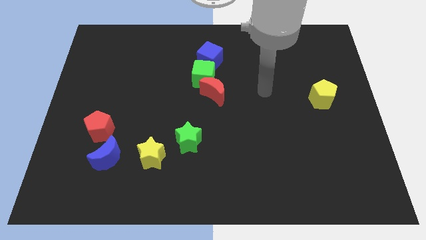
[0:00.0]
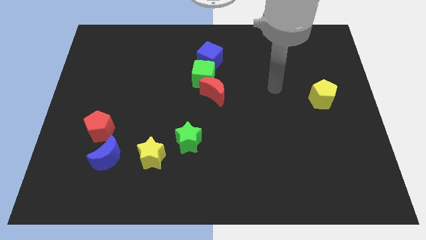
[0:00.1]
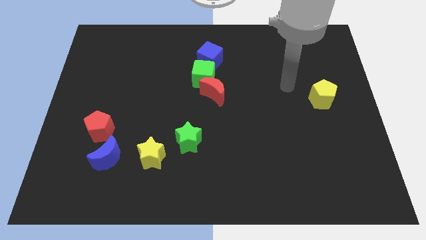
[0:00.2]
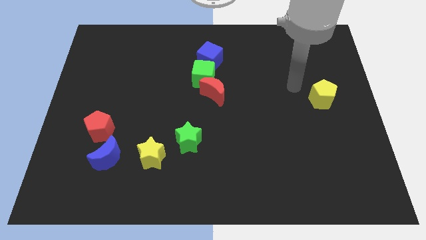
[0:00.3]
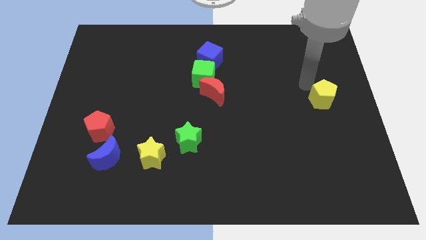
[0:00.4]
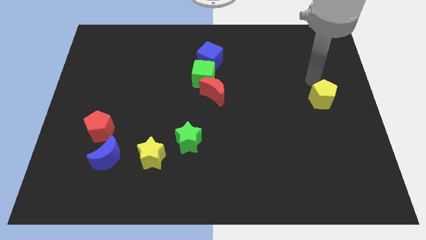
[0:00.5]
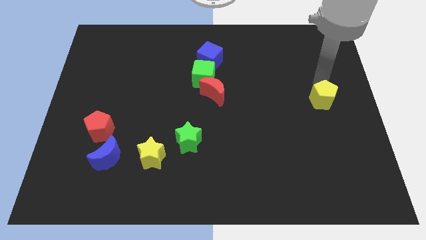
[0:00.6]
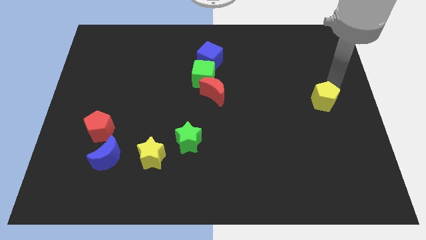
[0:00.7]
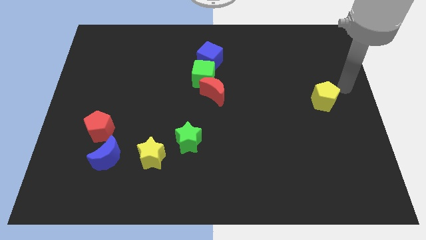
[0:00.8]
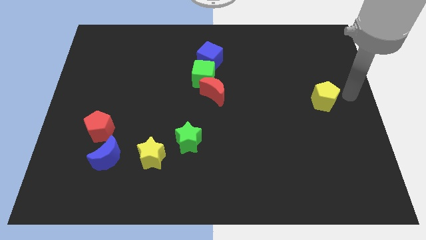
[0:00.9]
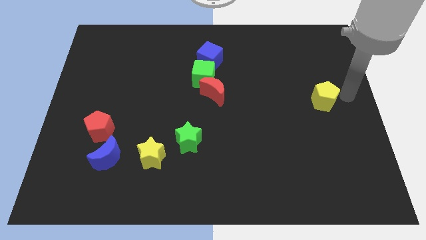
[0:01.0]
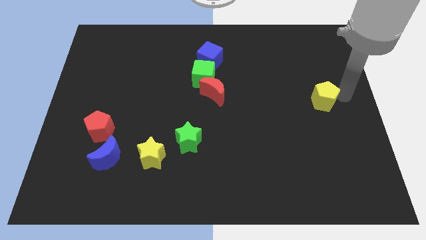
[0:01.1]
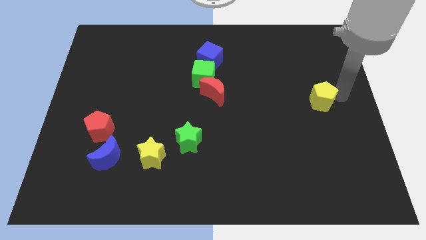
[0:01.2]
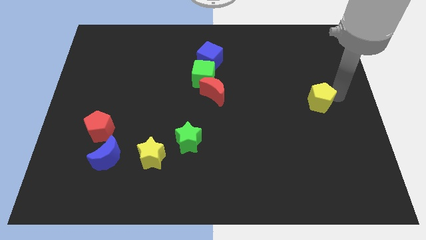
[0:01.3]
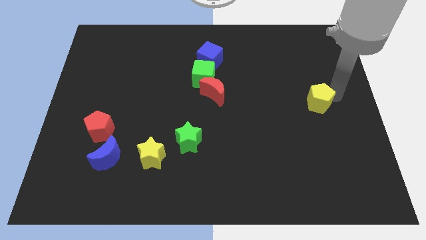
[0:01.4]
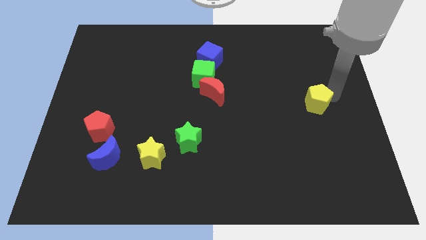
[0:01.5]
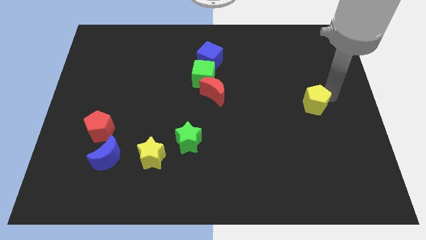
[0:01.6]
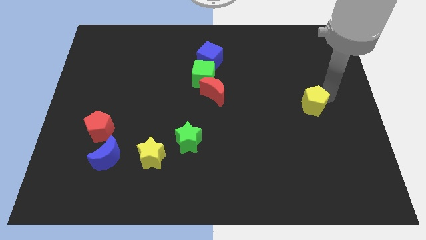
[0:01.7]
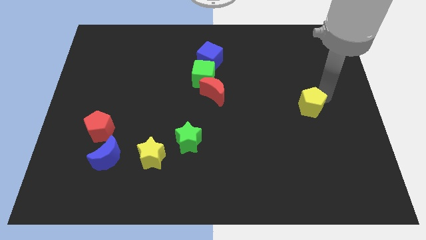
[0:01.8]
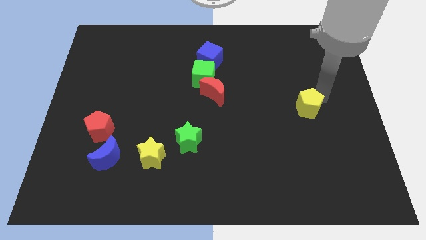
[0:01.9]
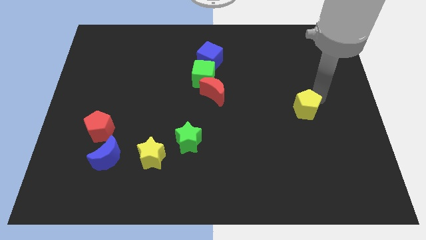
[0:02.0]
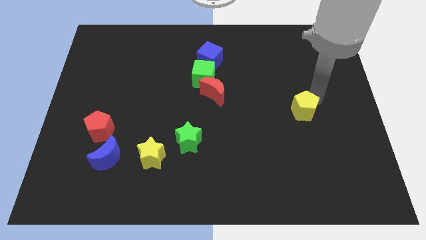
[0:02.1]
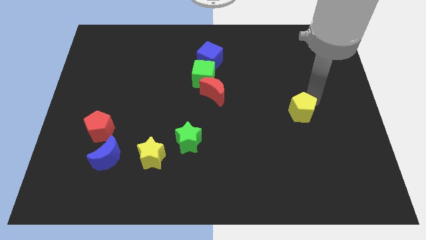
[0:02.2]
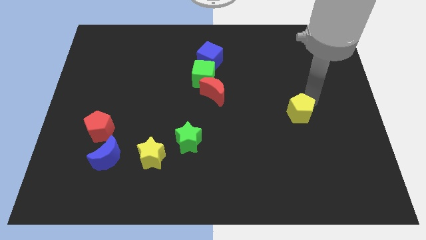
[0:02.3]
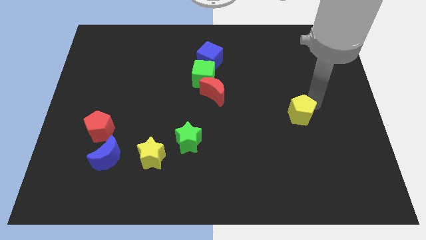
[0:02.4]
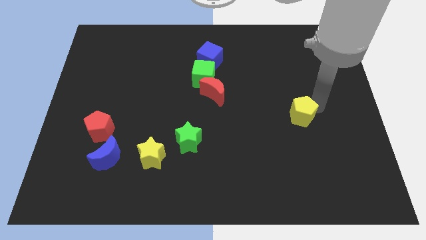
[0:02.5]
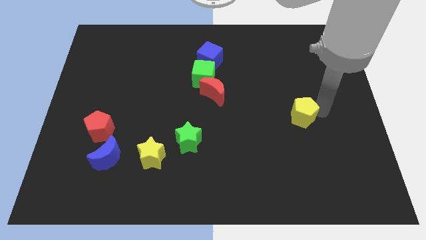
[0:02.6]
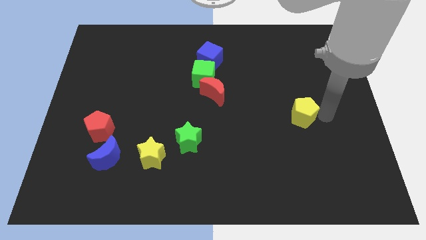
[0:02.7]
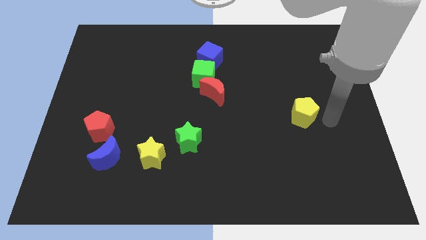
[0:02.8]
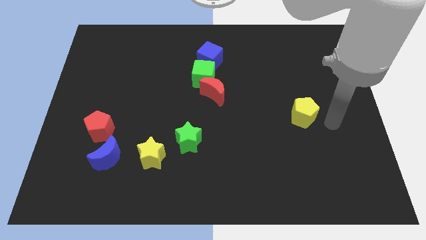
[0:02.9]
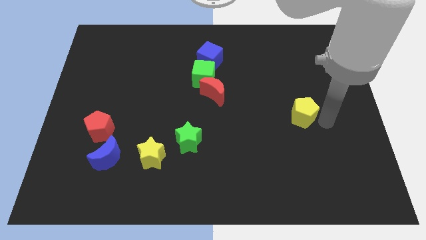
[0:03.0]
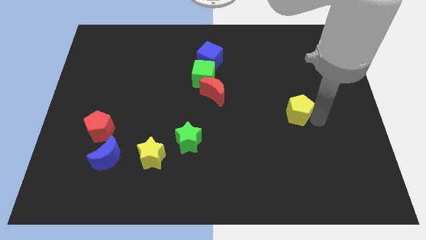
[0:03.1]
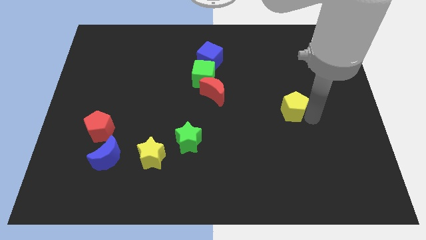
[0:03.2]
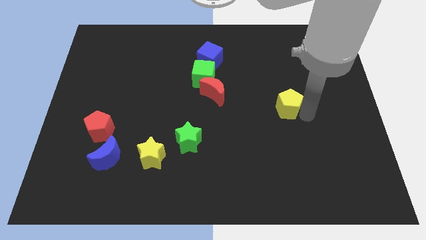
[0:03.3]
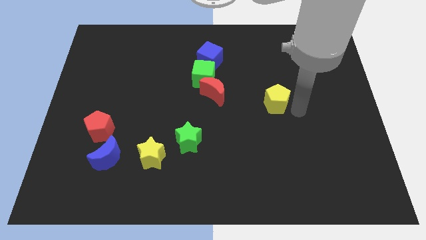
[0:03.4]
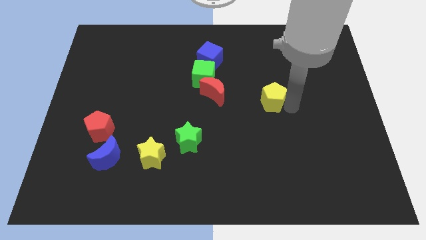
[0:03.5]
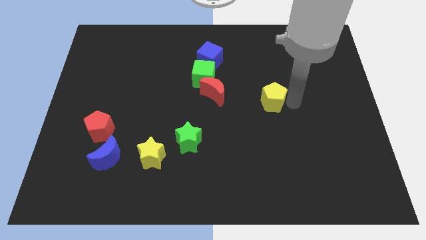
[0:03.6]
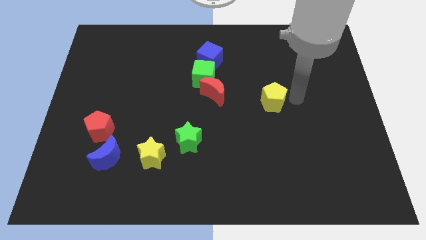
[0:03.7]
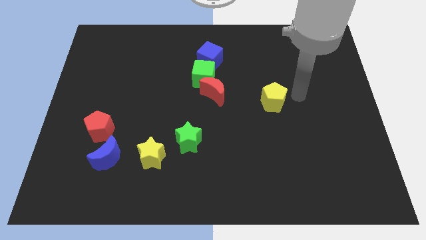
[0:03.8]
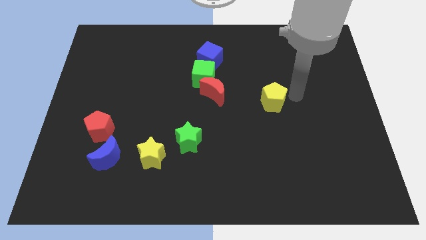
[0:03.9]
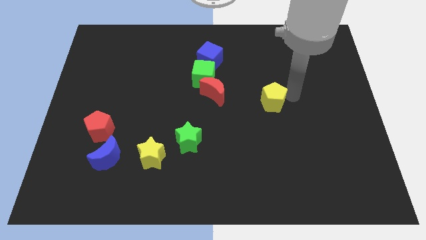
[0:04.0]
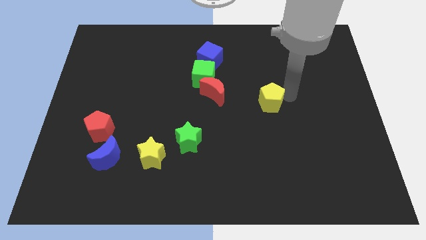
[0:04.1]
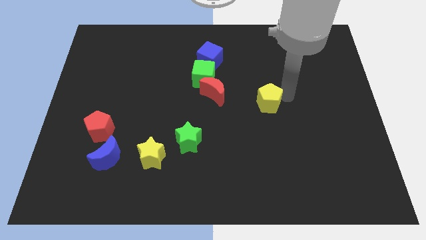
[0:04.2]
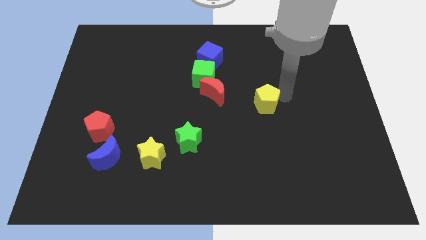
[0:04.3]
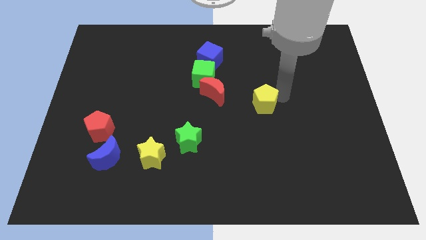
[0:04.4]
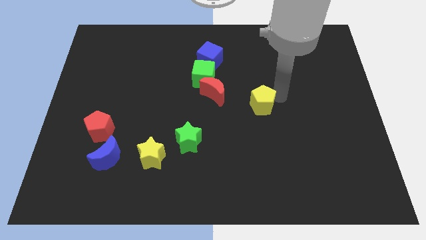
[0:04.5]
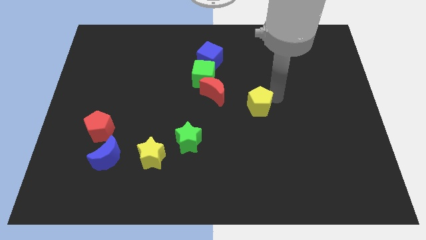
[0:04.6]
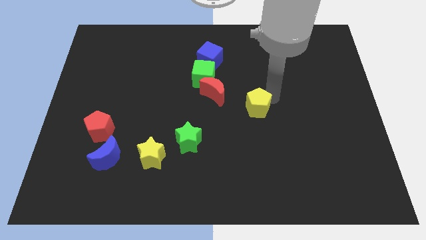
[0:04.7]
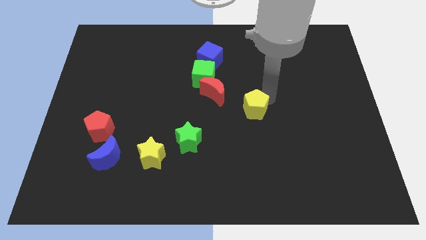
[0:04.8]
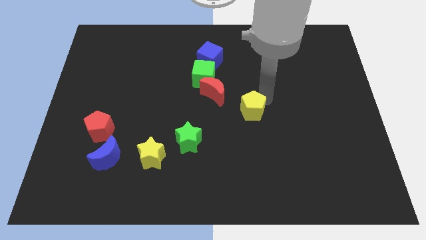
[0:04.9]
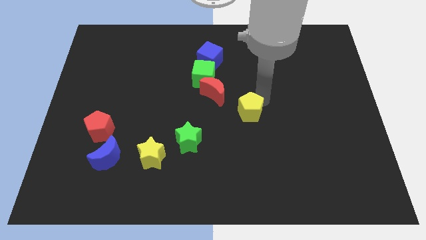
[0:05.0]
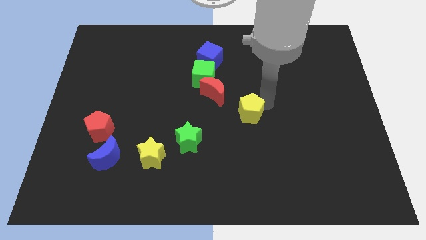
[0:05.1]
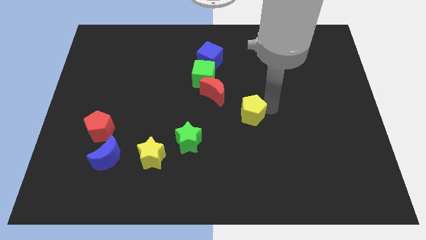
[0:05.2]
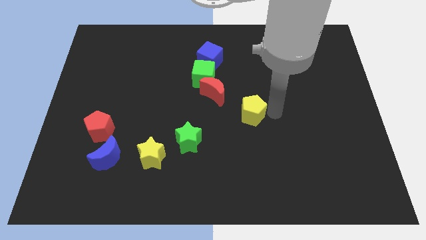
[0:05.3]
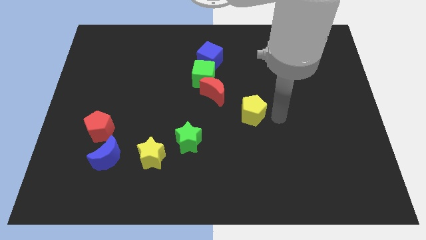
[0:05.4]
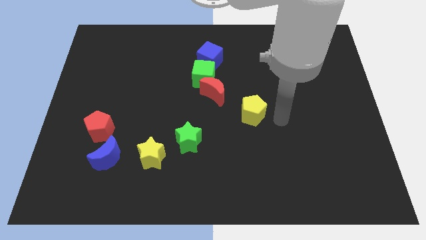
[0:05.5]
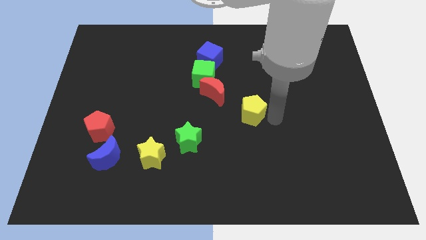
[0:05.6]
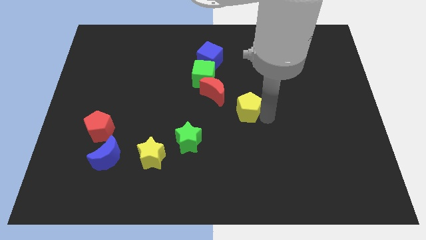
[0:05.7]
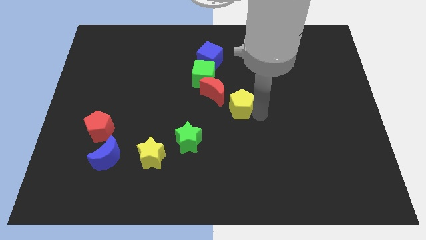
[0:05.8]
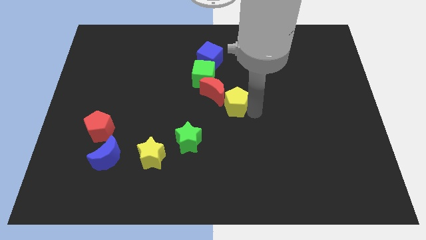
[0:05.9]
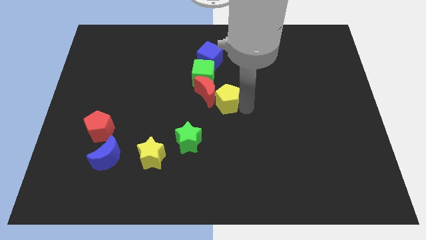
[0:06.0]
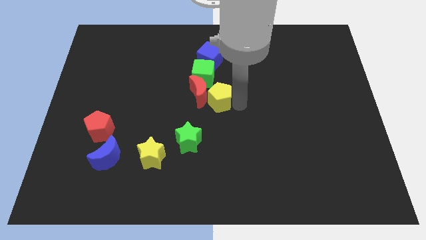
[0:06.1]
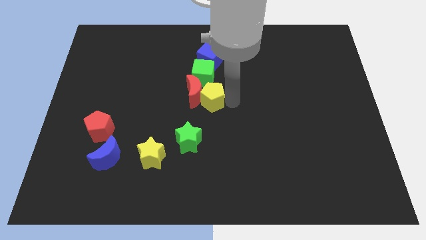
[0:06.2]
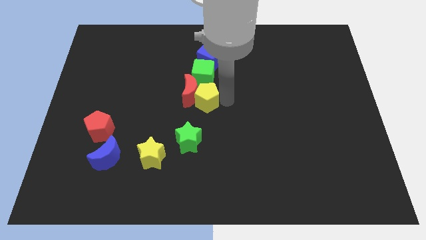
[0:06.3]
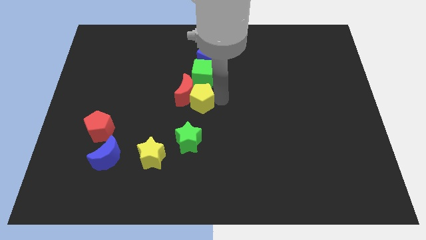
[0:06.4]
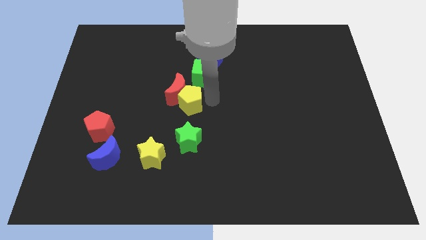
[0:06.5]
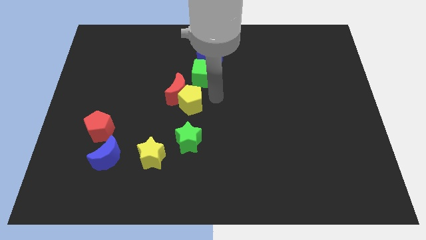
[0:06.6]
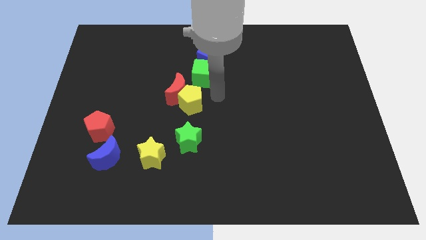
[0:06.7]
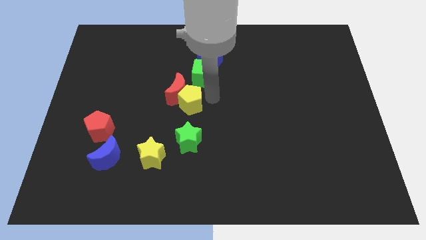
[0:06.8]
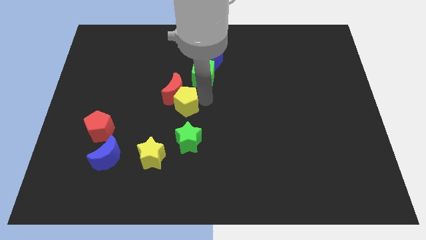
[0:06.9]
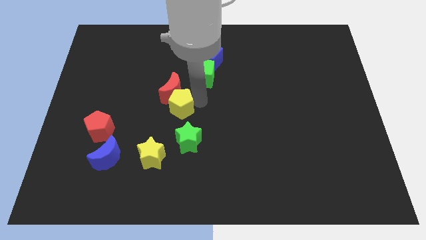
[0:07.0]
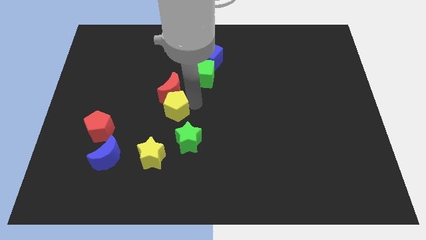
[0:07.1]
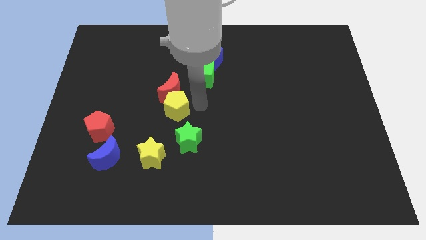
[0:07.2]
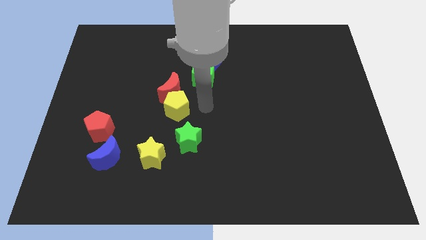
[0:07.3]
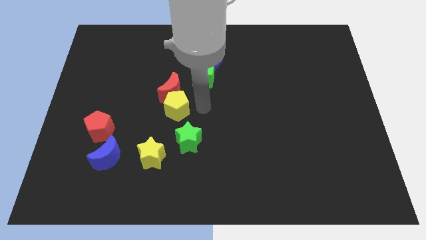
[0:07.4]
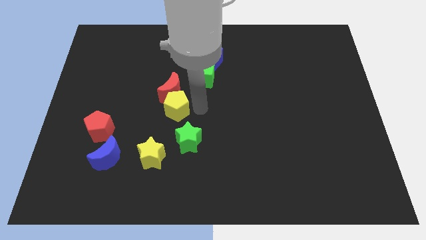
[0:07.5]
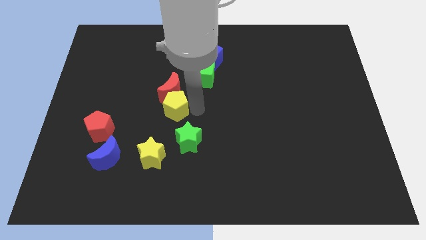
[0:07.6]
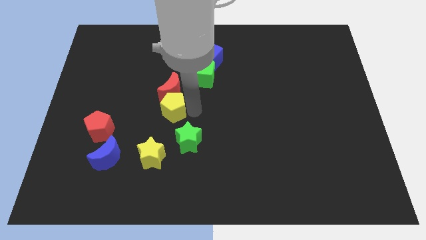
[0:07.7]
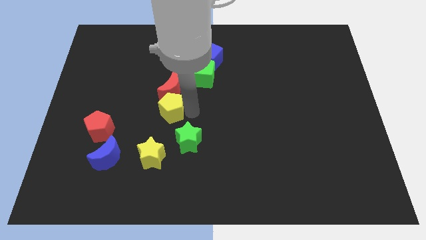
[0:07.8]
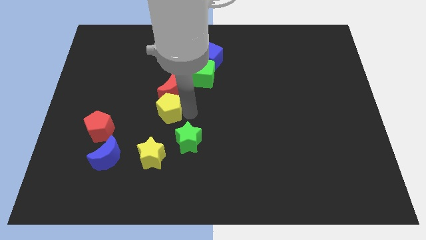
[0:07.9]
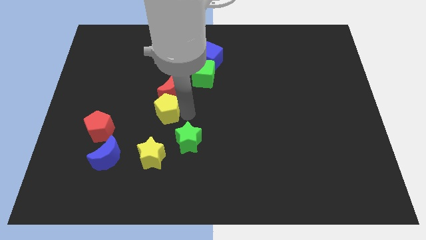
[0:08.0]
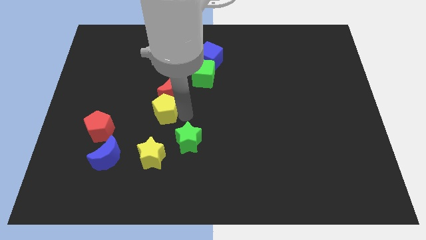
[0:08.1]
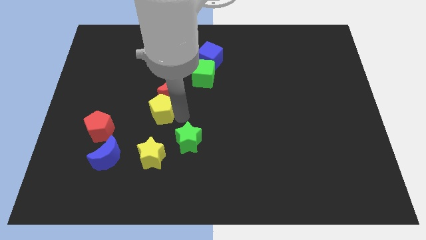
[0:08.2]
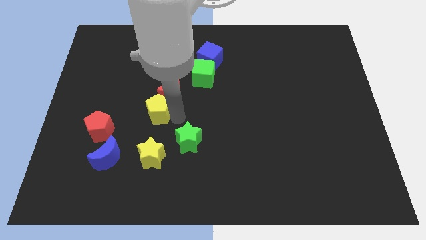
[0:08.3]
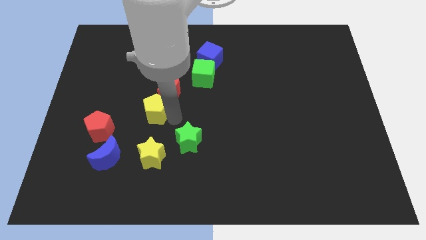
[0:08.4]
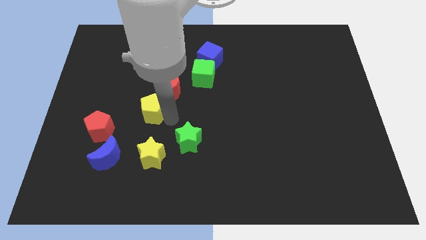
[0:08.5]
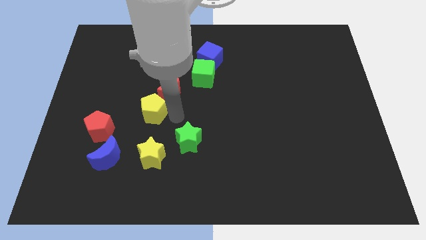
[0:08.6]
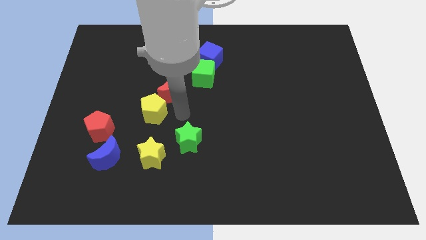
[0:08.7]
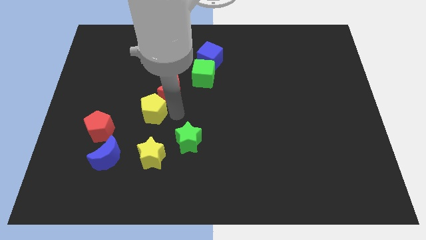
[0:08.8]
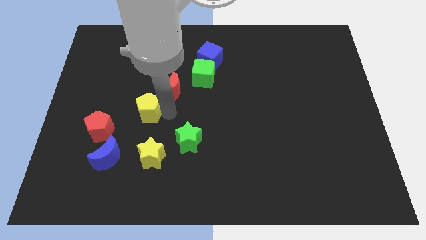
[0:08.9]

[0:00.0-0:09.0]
push the yellow pentagon diagonally up and to the right of the red pentagon
